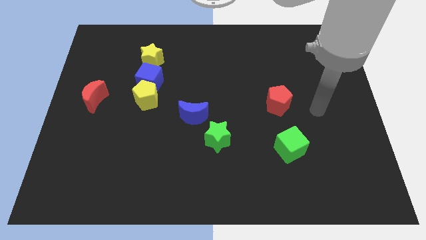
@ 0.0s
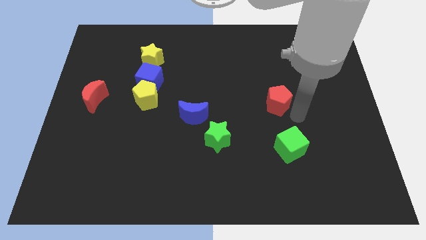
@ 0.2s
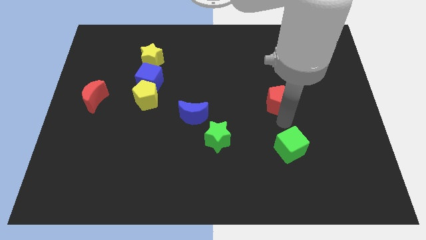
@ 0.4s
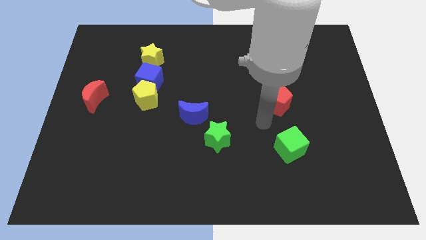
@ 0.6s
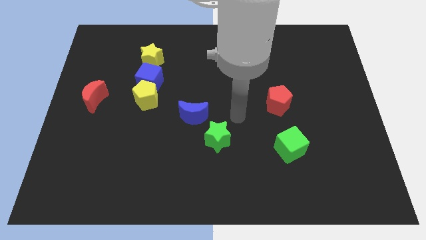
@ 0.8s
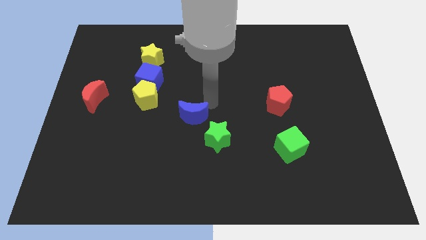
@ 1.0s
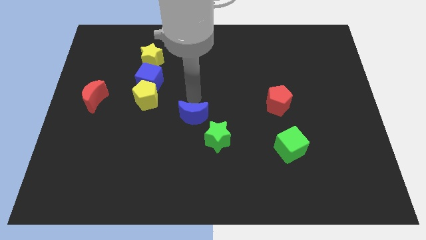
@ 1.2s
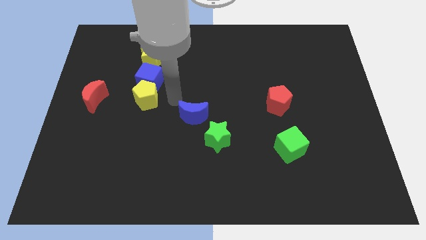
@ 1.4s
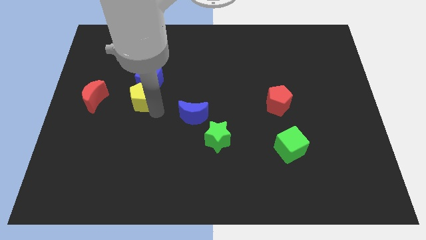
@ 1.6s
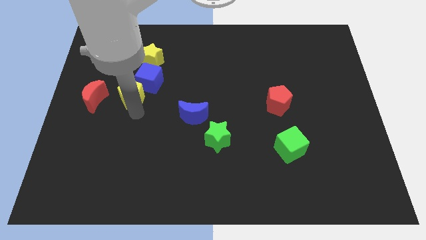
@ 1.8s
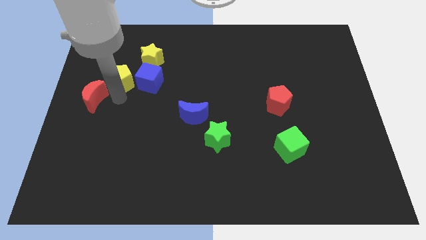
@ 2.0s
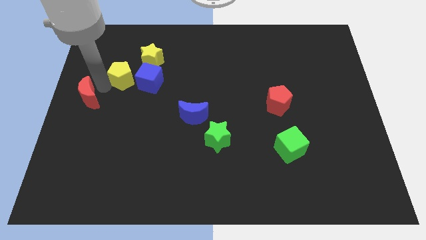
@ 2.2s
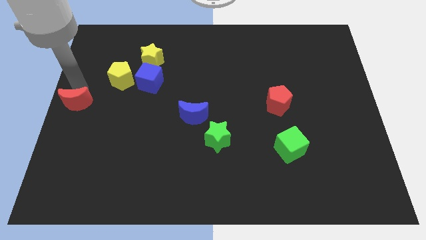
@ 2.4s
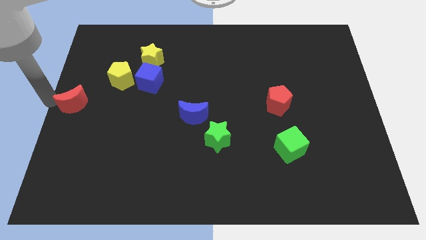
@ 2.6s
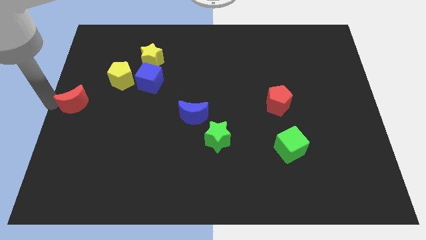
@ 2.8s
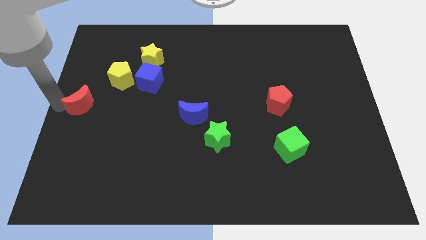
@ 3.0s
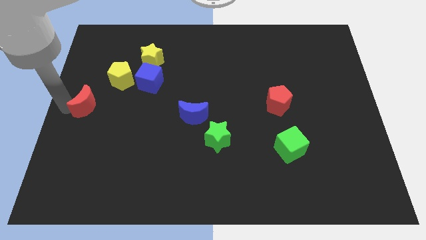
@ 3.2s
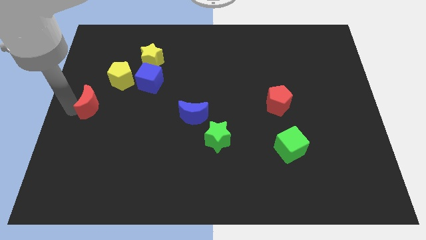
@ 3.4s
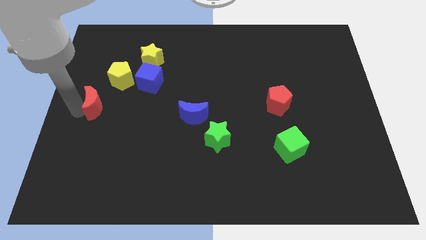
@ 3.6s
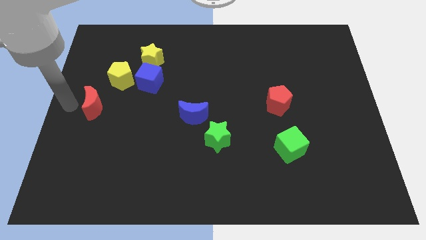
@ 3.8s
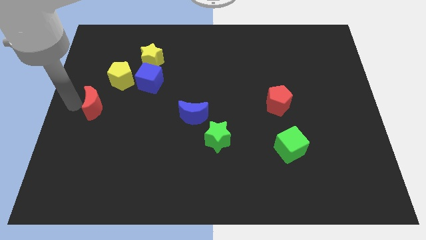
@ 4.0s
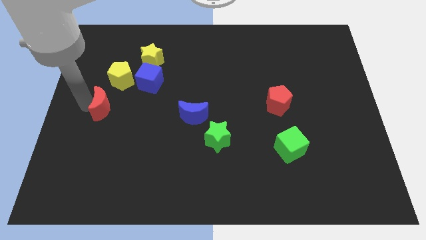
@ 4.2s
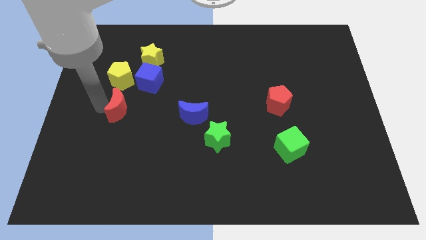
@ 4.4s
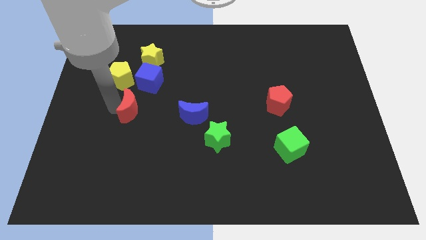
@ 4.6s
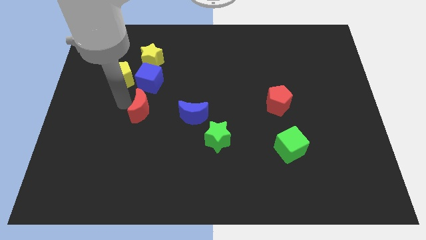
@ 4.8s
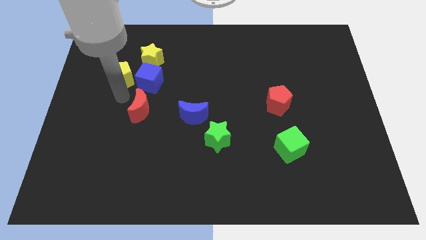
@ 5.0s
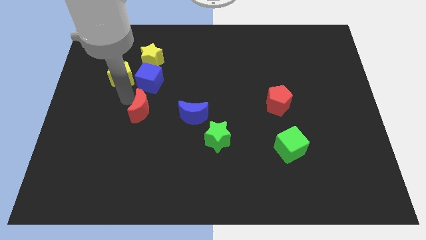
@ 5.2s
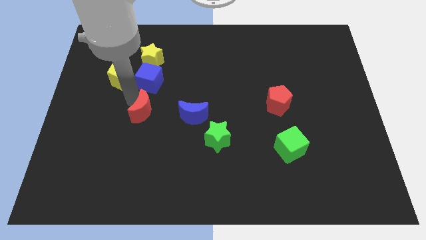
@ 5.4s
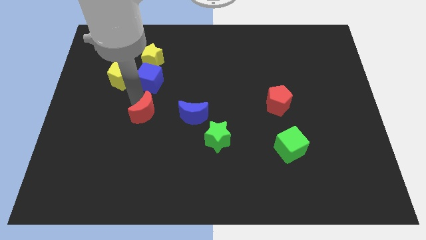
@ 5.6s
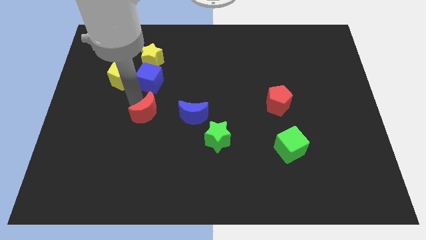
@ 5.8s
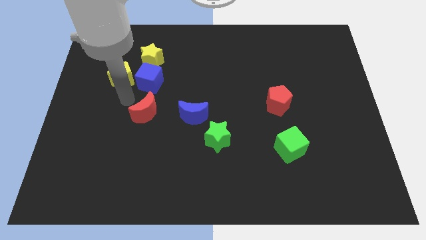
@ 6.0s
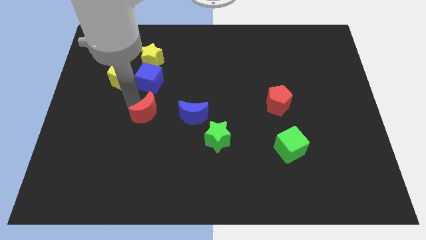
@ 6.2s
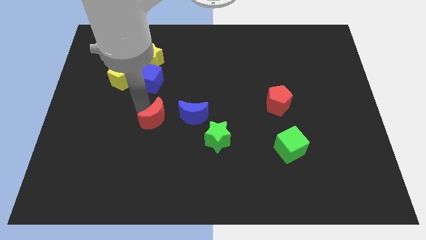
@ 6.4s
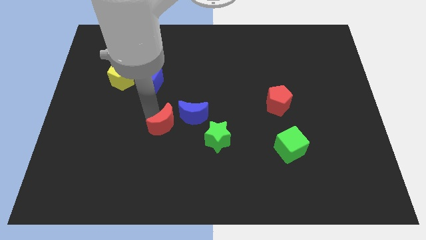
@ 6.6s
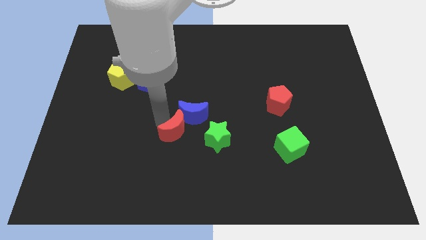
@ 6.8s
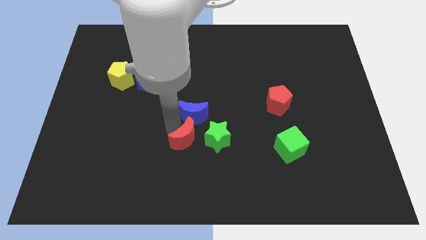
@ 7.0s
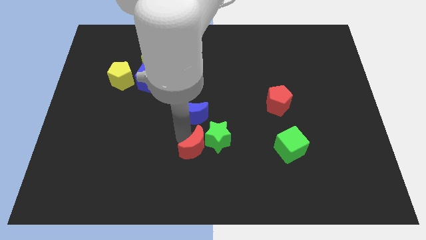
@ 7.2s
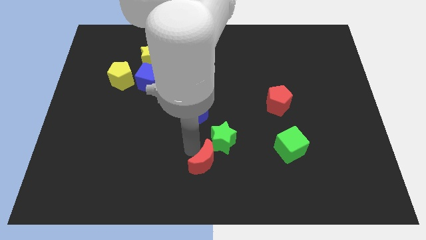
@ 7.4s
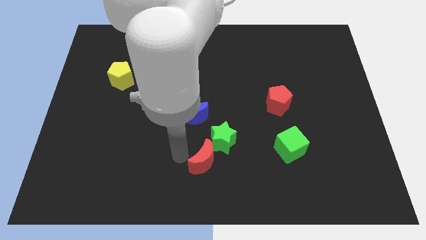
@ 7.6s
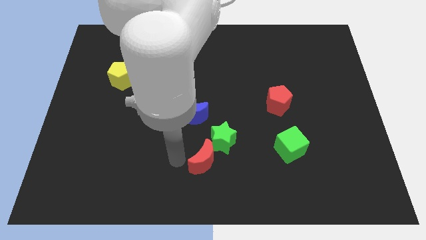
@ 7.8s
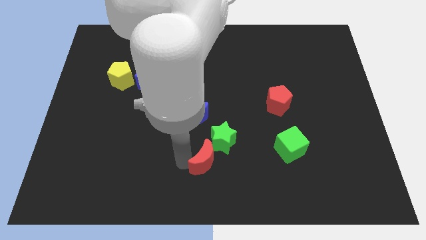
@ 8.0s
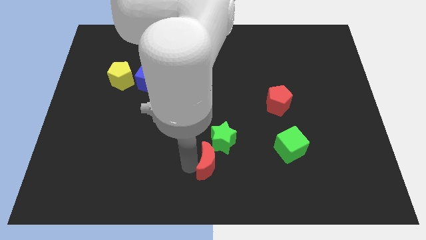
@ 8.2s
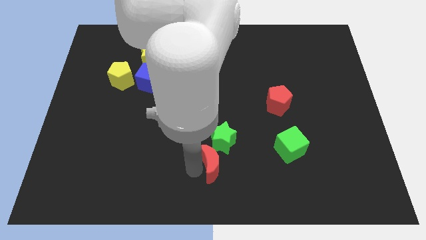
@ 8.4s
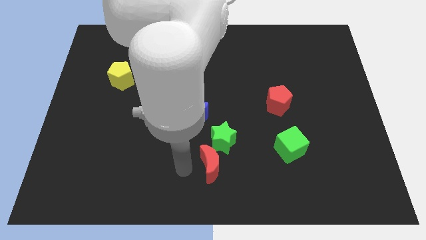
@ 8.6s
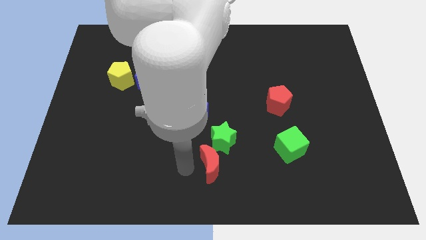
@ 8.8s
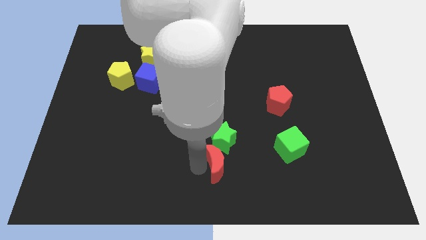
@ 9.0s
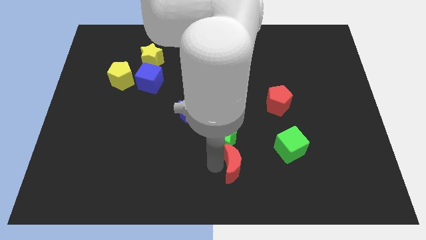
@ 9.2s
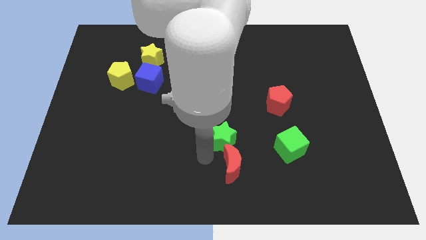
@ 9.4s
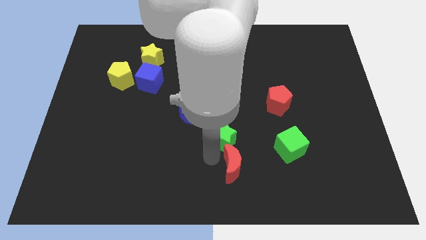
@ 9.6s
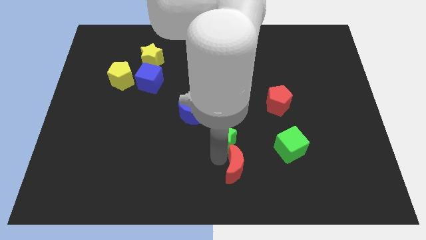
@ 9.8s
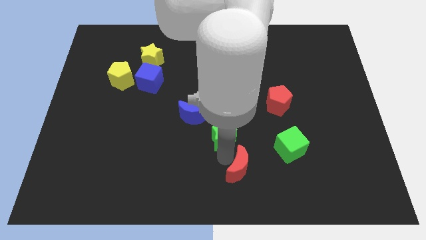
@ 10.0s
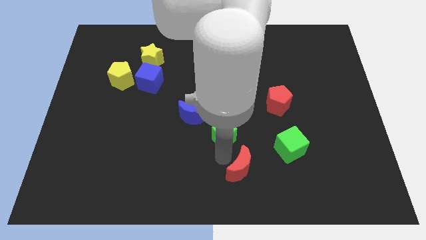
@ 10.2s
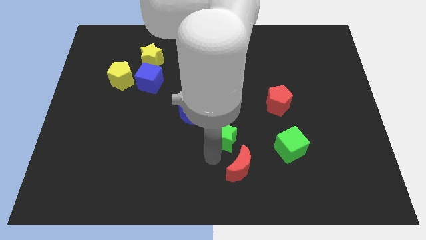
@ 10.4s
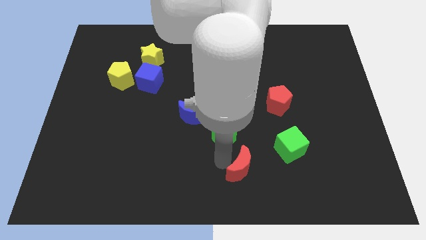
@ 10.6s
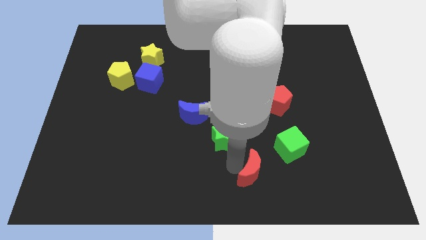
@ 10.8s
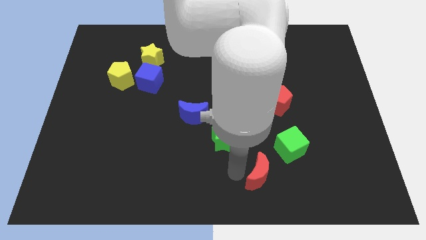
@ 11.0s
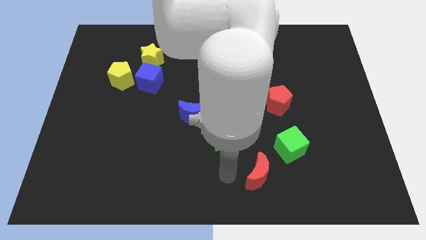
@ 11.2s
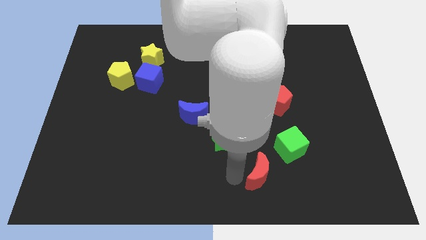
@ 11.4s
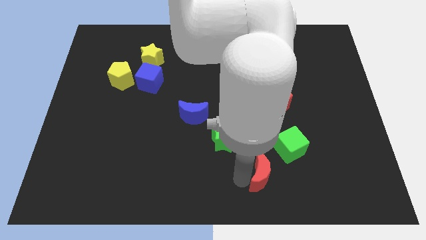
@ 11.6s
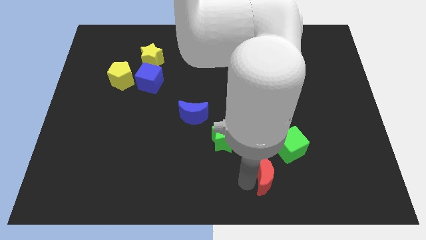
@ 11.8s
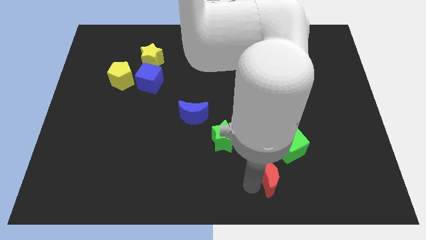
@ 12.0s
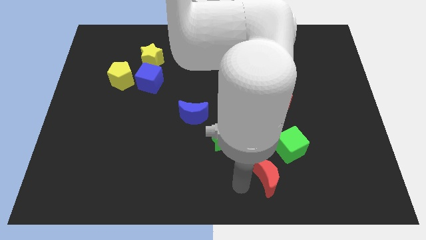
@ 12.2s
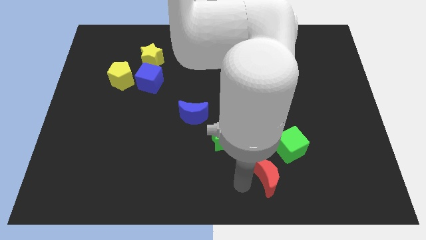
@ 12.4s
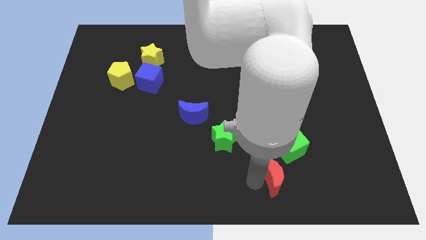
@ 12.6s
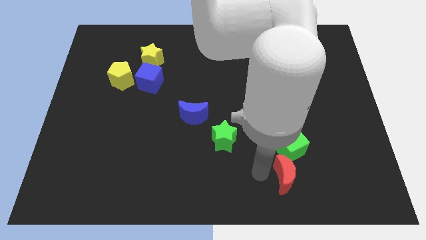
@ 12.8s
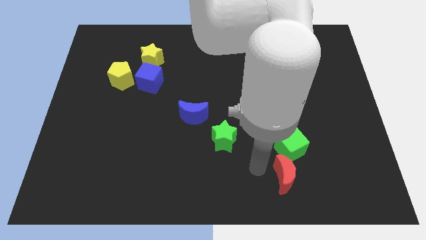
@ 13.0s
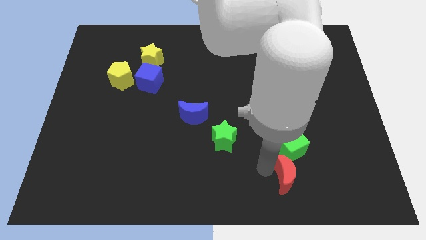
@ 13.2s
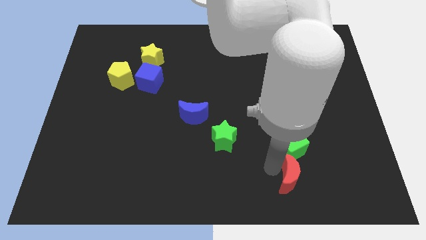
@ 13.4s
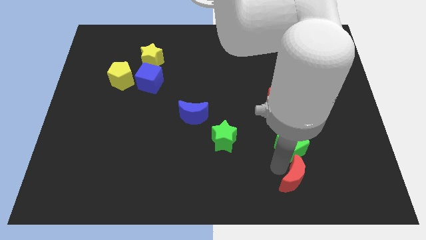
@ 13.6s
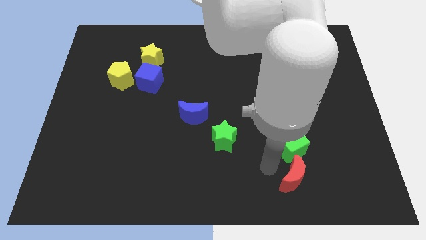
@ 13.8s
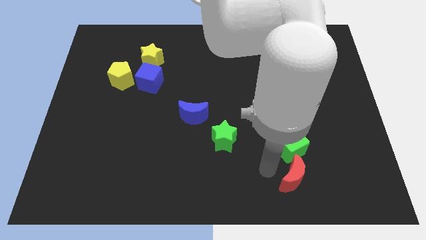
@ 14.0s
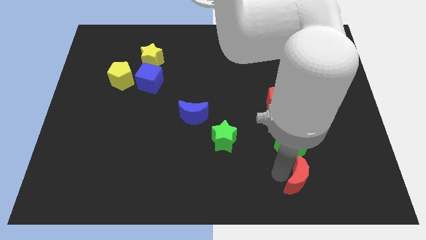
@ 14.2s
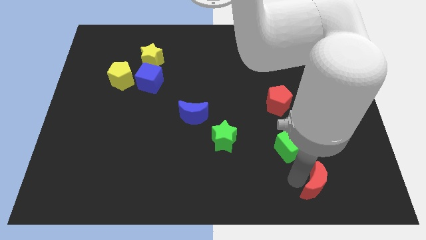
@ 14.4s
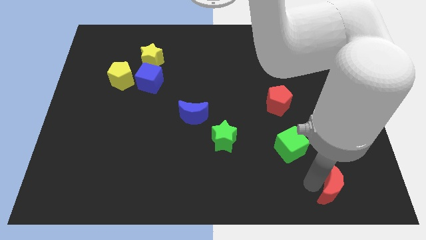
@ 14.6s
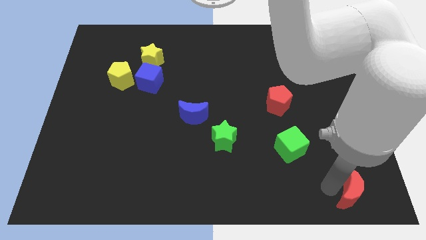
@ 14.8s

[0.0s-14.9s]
put the red moon to the bottom right corner
